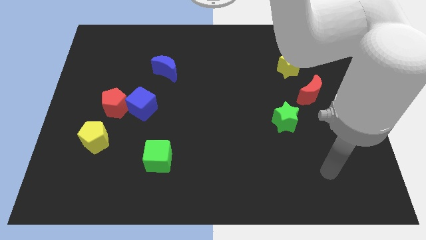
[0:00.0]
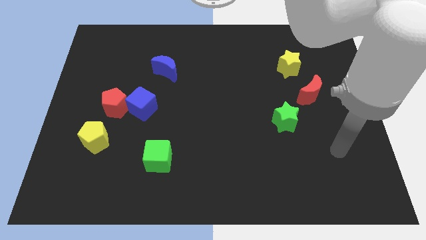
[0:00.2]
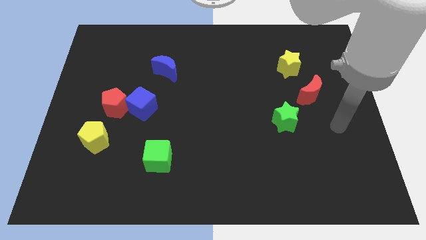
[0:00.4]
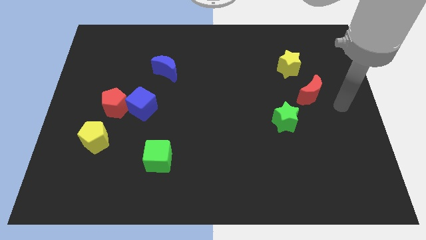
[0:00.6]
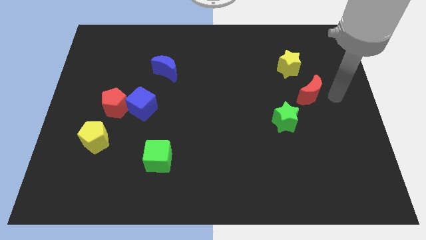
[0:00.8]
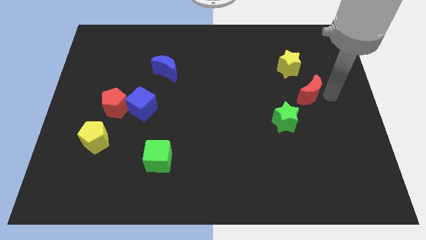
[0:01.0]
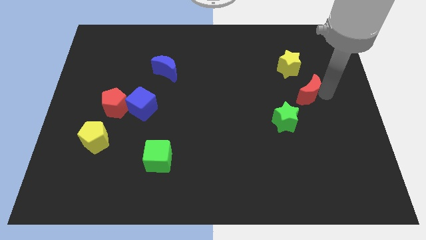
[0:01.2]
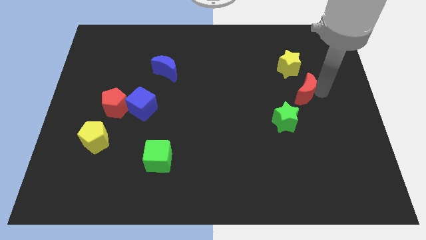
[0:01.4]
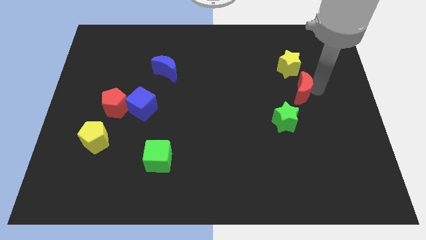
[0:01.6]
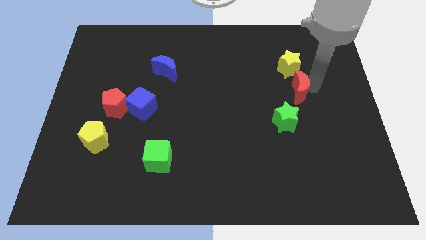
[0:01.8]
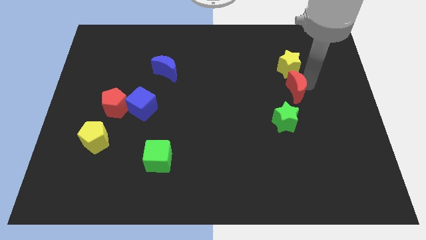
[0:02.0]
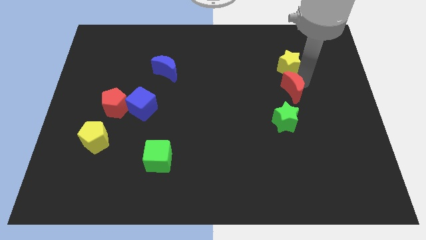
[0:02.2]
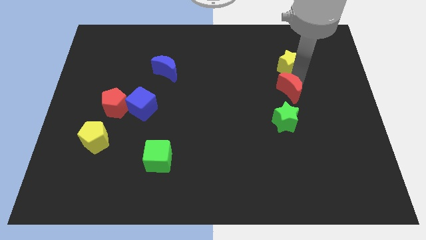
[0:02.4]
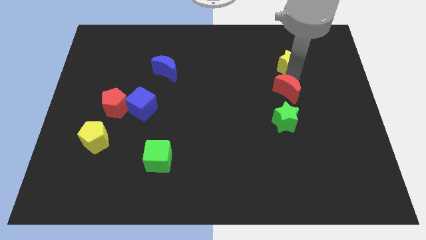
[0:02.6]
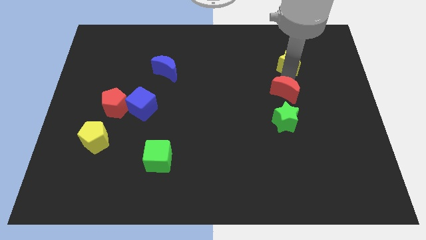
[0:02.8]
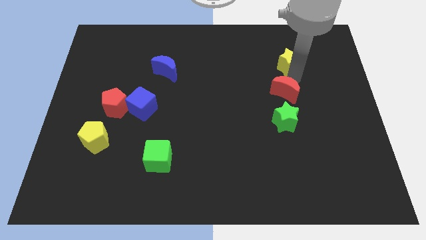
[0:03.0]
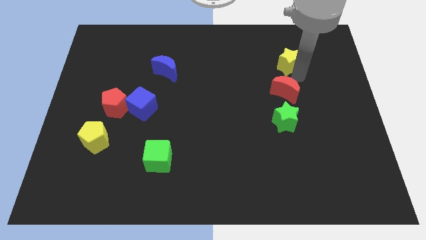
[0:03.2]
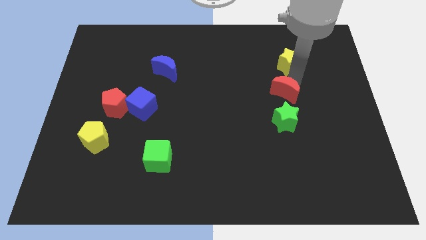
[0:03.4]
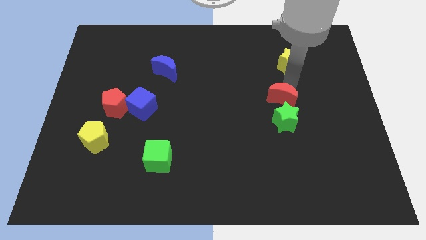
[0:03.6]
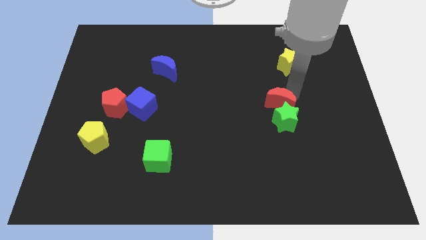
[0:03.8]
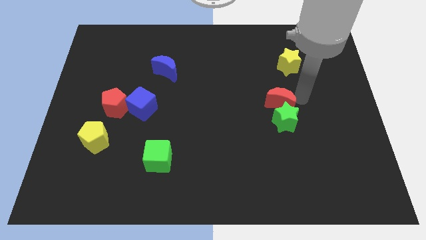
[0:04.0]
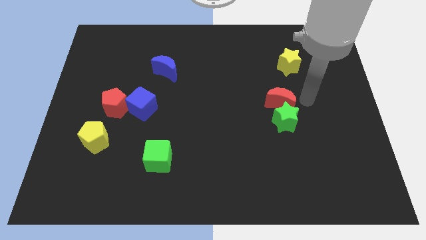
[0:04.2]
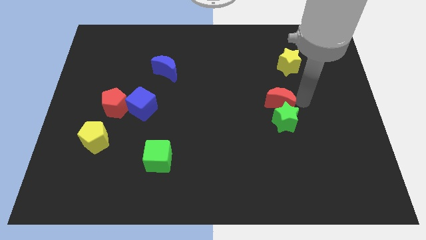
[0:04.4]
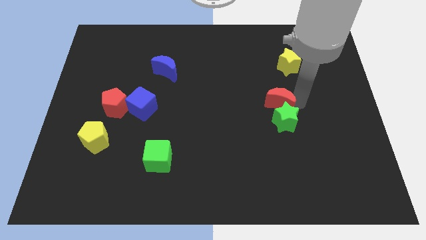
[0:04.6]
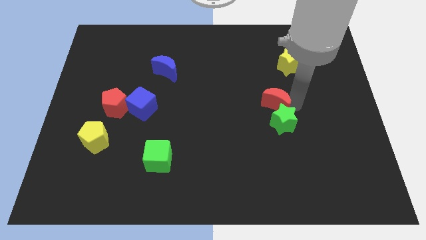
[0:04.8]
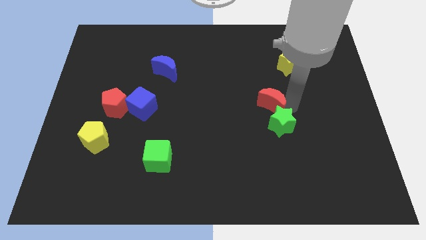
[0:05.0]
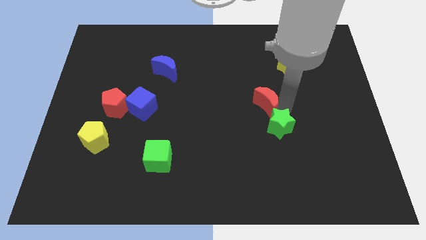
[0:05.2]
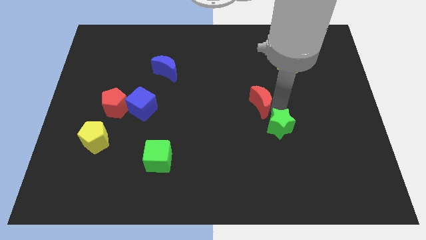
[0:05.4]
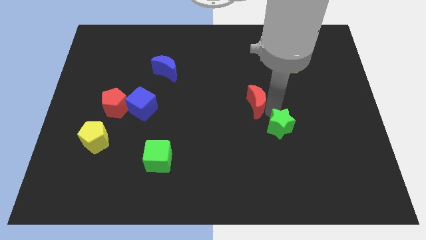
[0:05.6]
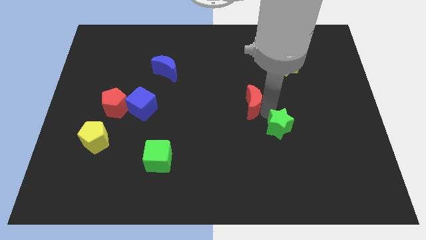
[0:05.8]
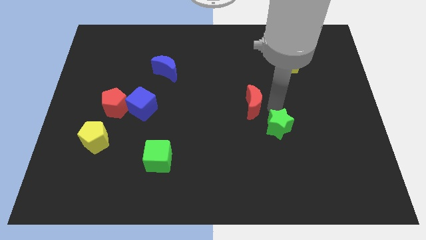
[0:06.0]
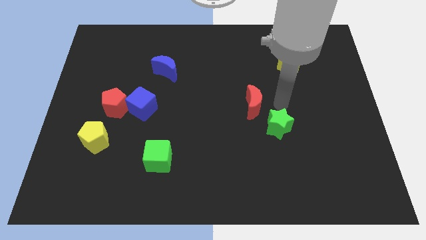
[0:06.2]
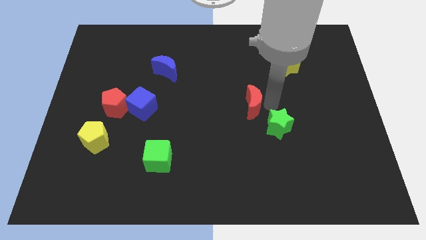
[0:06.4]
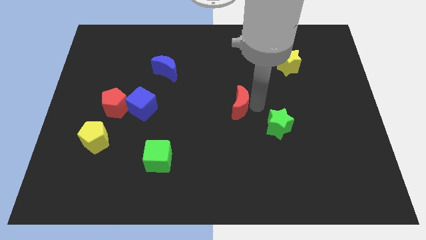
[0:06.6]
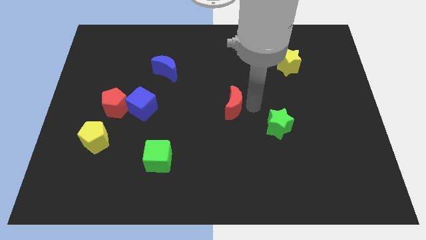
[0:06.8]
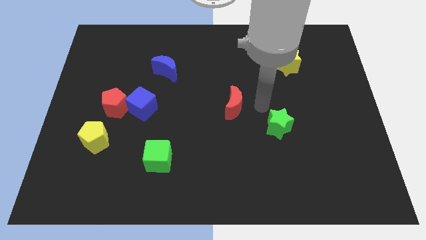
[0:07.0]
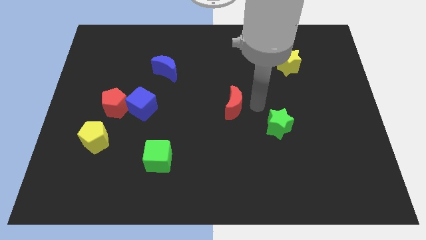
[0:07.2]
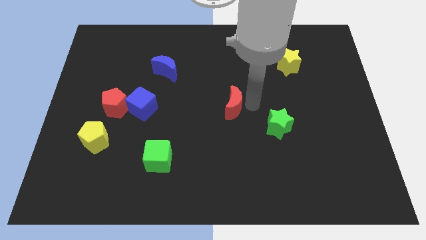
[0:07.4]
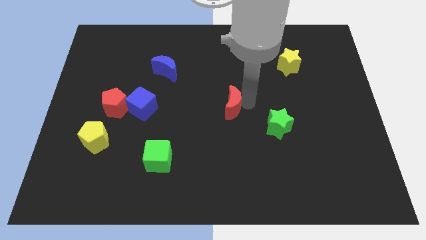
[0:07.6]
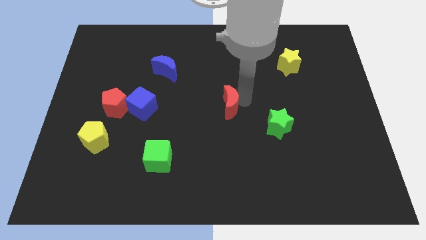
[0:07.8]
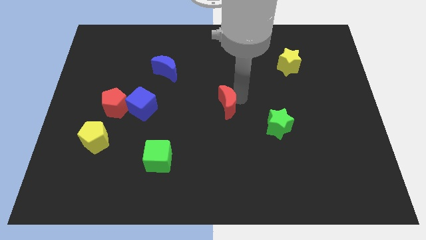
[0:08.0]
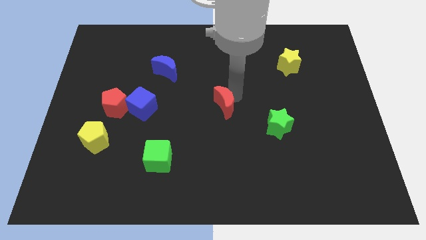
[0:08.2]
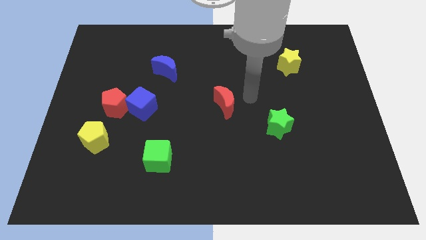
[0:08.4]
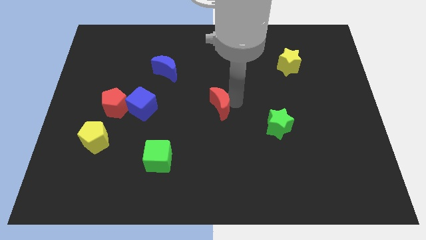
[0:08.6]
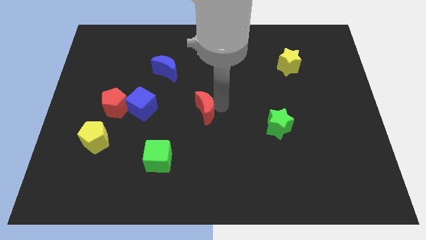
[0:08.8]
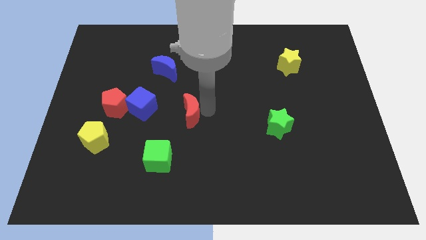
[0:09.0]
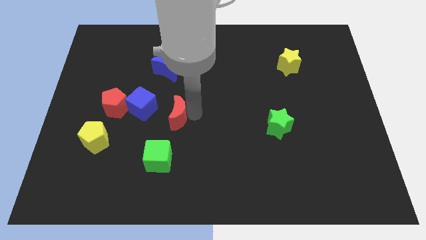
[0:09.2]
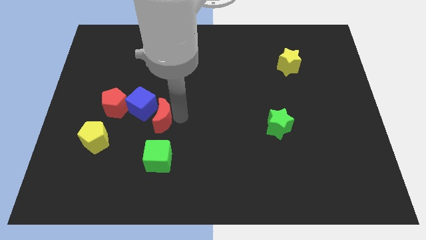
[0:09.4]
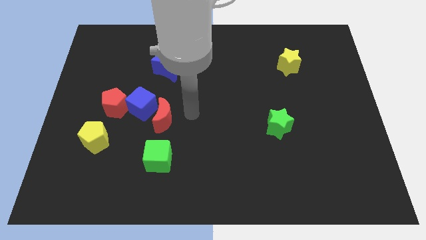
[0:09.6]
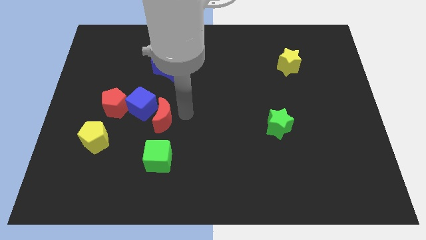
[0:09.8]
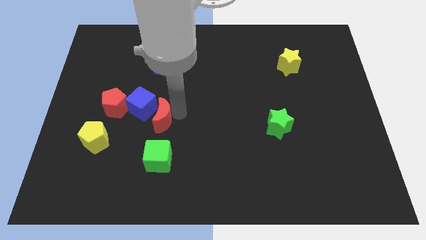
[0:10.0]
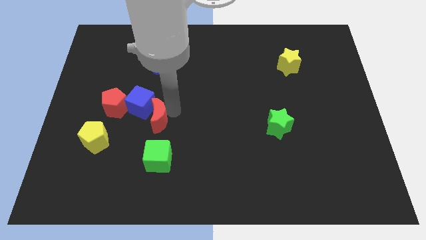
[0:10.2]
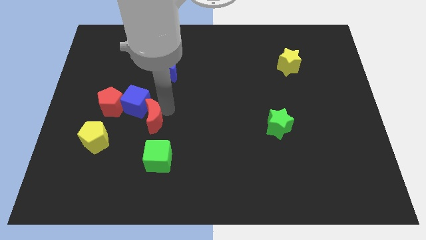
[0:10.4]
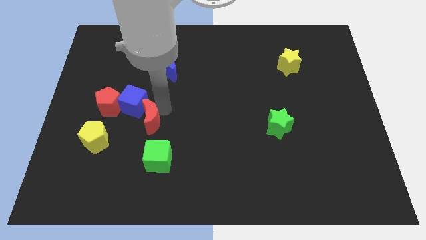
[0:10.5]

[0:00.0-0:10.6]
slide the red moon diagonally down and to the right of the red pentagon

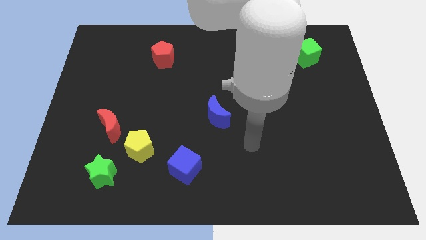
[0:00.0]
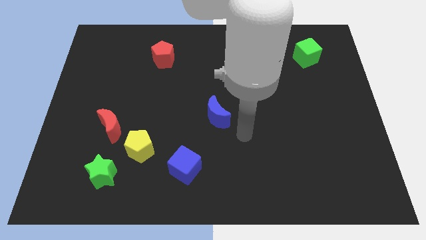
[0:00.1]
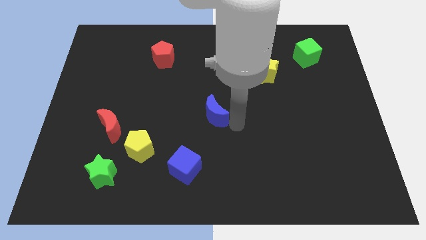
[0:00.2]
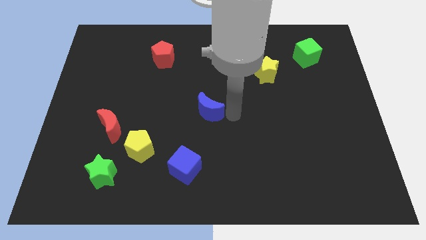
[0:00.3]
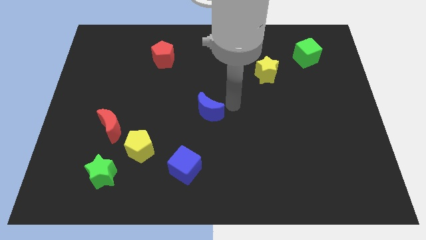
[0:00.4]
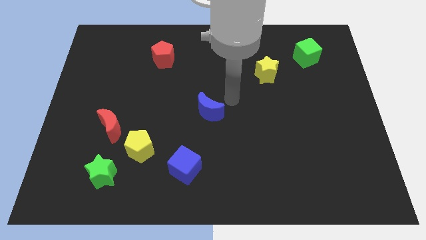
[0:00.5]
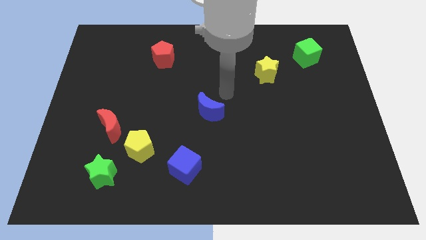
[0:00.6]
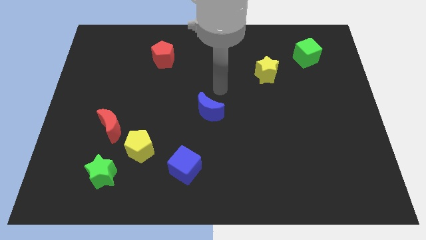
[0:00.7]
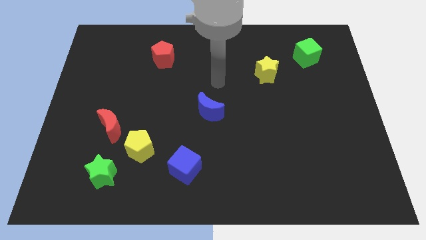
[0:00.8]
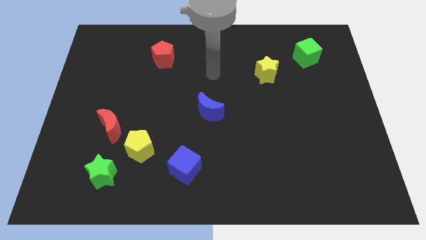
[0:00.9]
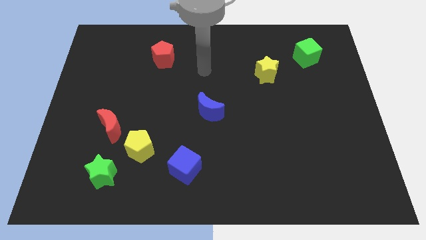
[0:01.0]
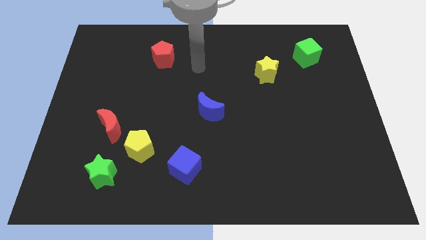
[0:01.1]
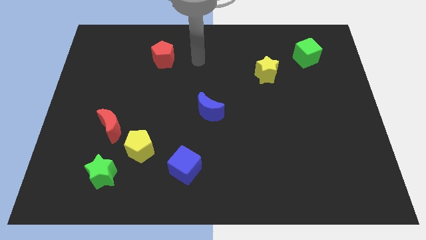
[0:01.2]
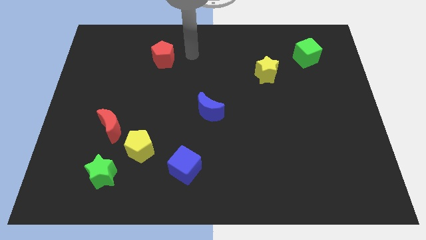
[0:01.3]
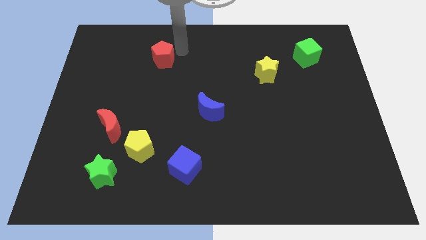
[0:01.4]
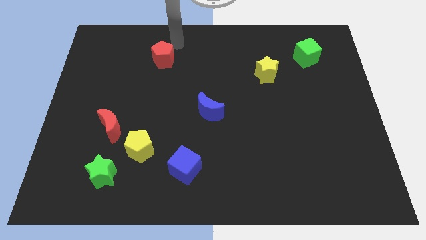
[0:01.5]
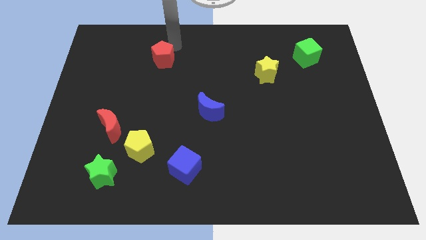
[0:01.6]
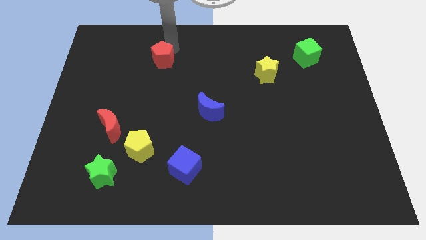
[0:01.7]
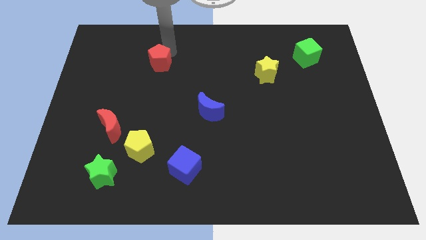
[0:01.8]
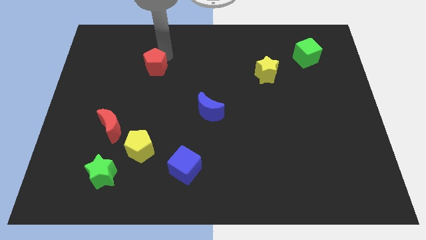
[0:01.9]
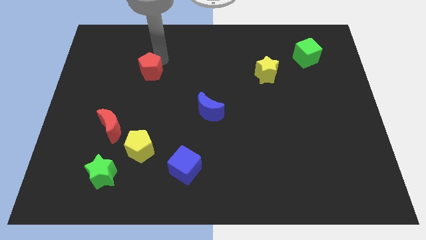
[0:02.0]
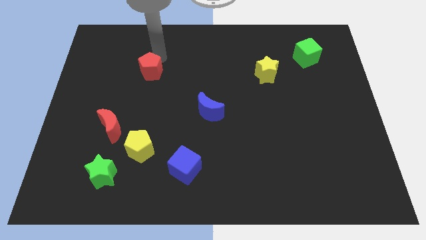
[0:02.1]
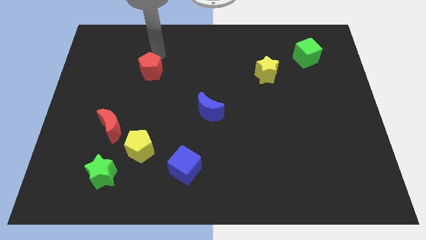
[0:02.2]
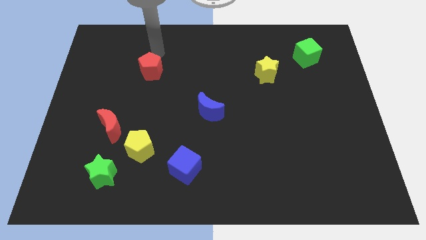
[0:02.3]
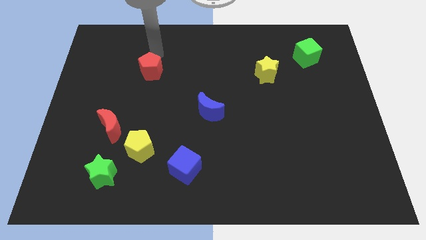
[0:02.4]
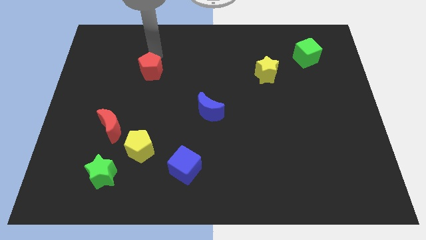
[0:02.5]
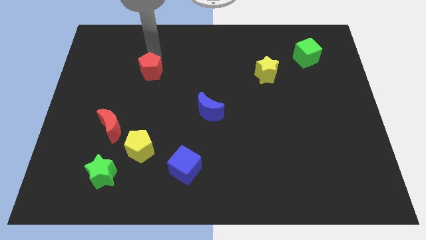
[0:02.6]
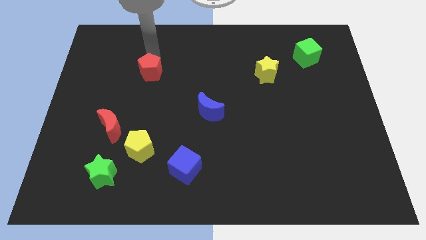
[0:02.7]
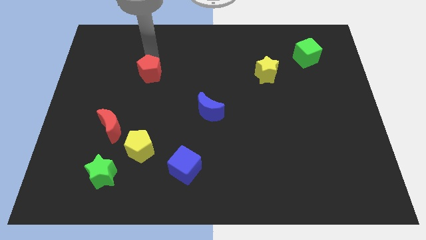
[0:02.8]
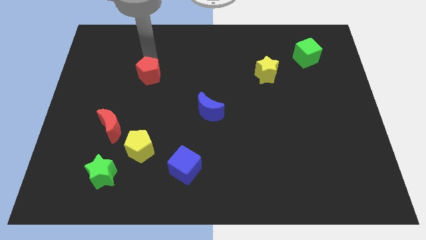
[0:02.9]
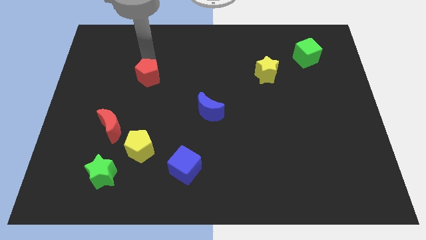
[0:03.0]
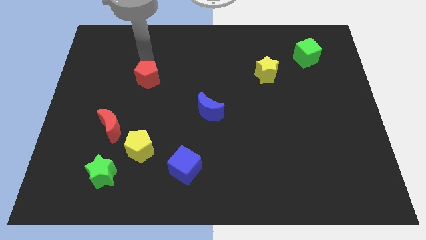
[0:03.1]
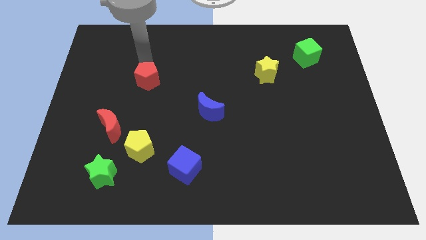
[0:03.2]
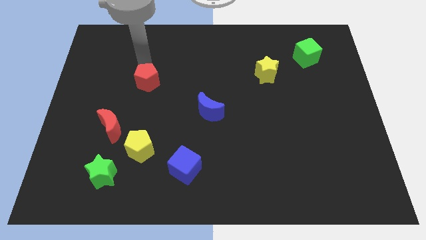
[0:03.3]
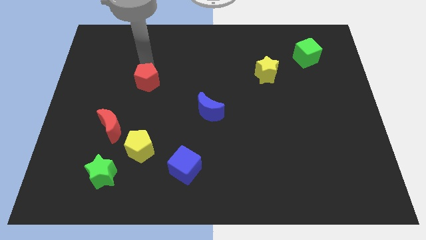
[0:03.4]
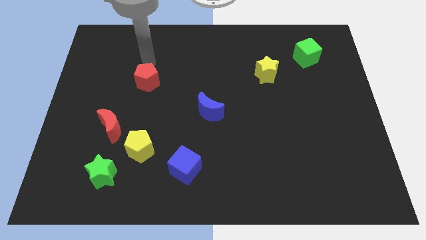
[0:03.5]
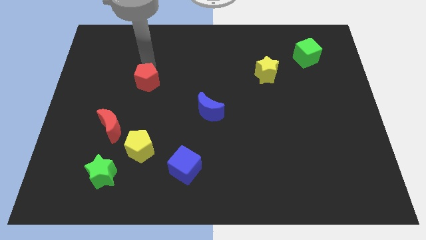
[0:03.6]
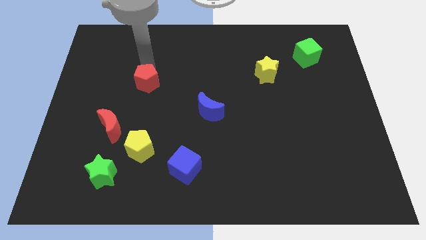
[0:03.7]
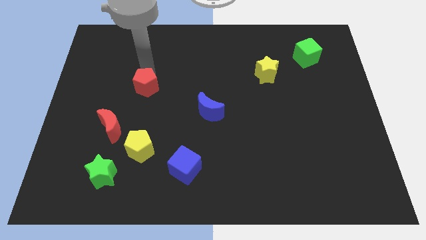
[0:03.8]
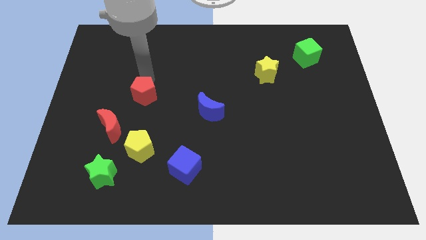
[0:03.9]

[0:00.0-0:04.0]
put the red pentagon to the top side of the yellow pentagon
